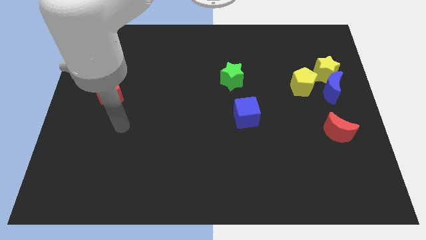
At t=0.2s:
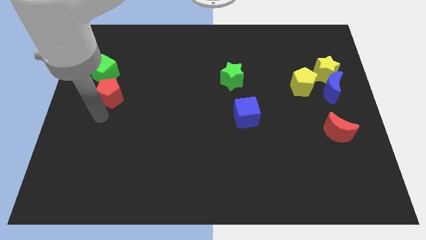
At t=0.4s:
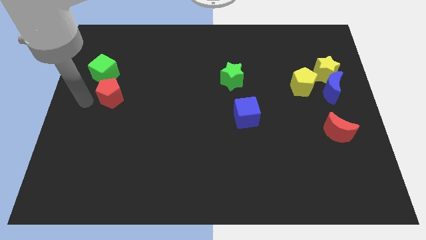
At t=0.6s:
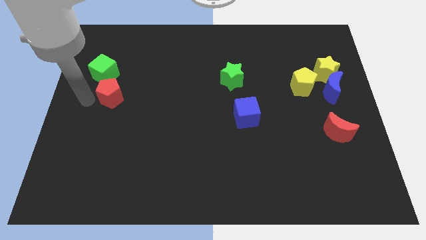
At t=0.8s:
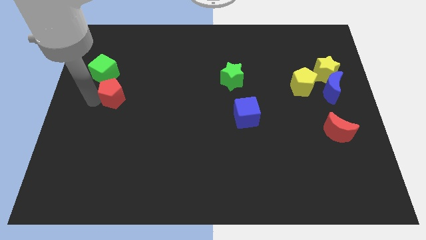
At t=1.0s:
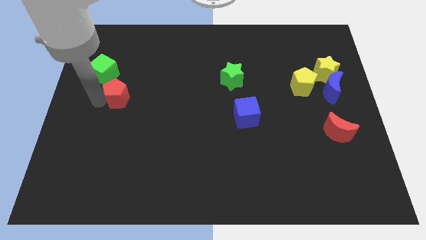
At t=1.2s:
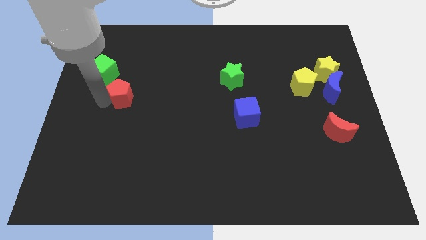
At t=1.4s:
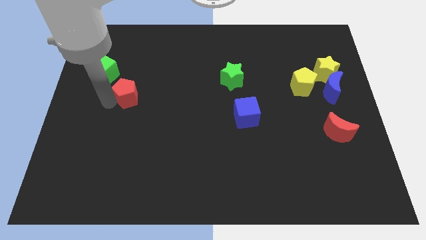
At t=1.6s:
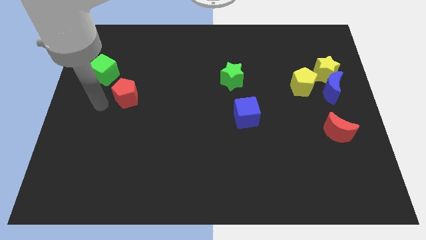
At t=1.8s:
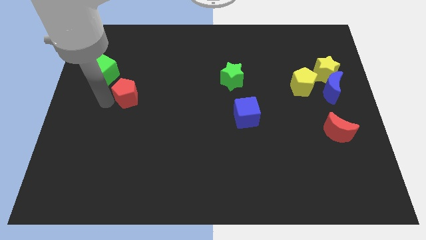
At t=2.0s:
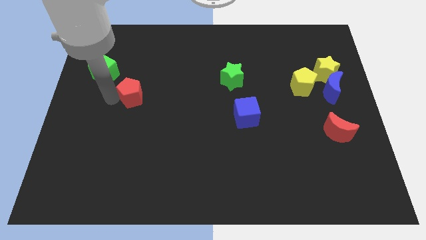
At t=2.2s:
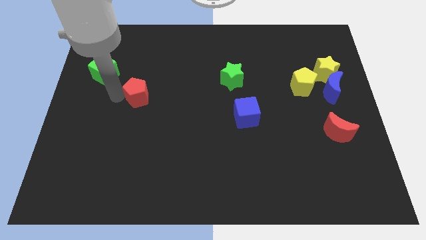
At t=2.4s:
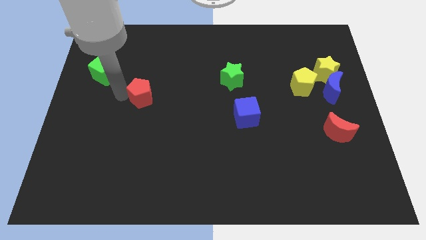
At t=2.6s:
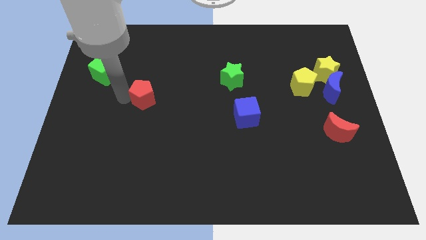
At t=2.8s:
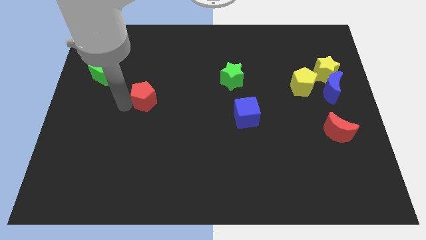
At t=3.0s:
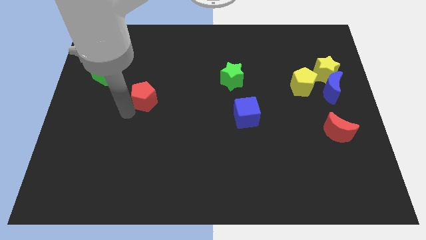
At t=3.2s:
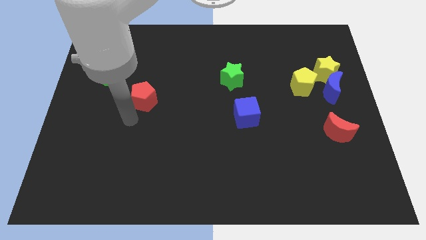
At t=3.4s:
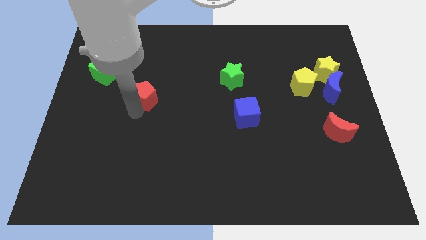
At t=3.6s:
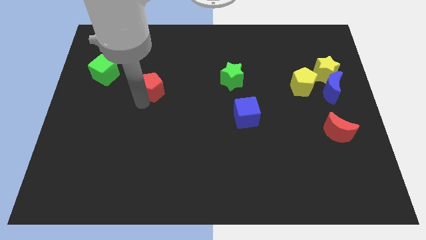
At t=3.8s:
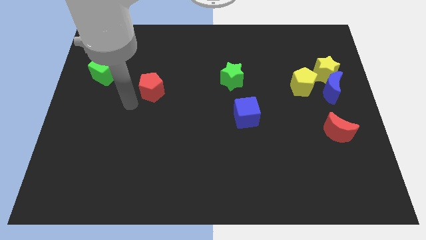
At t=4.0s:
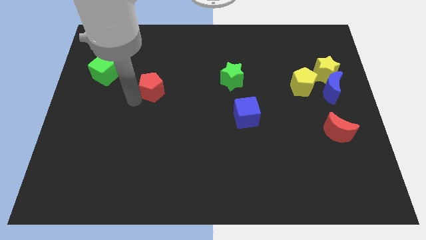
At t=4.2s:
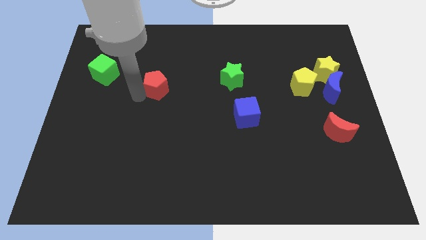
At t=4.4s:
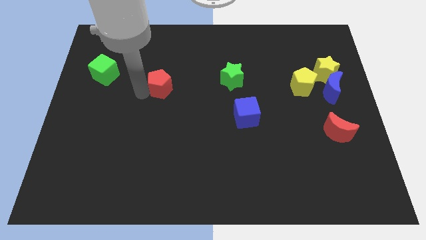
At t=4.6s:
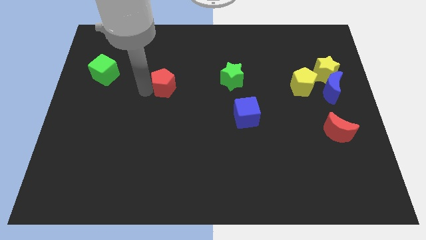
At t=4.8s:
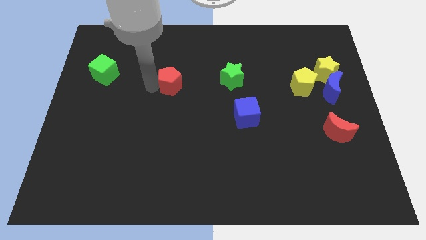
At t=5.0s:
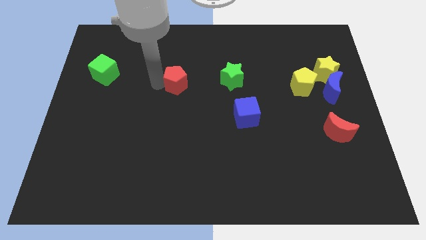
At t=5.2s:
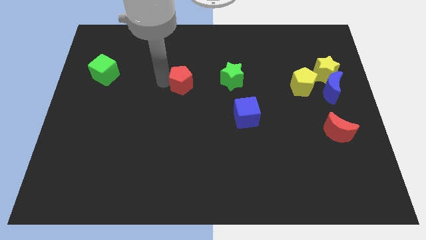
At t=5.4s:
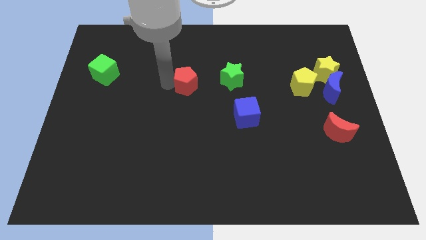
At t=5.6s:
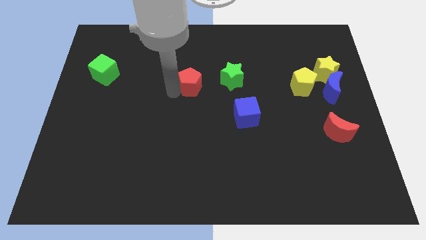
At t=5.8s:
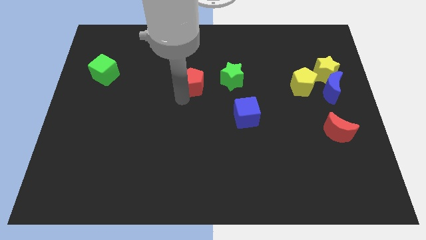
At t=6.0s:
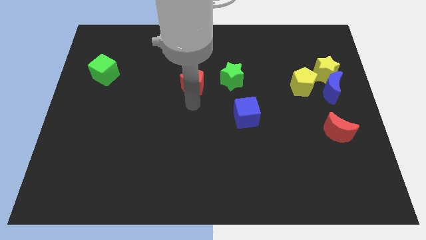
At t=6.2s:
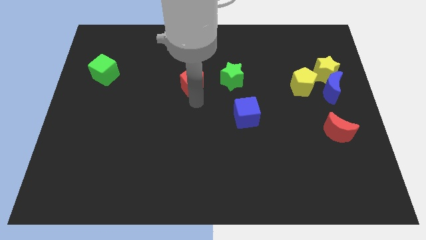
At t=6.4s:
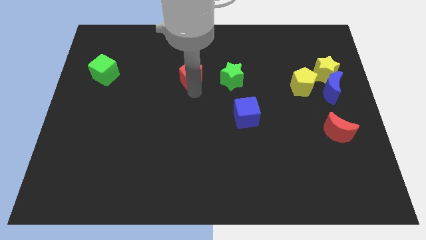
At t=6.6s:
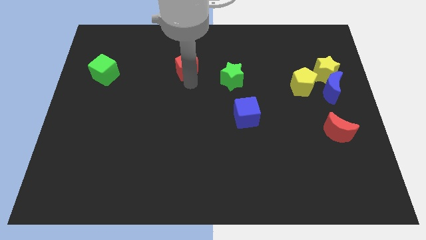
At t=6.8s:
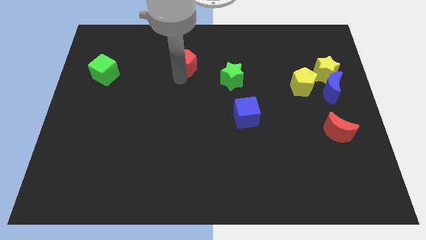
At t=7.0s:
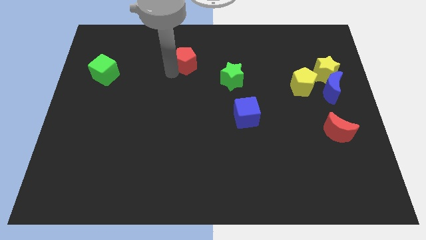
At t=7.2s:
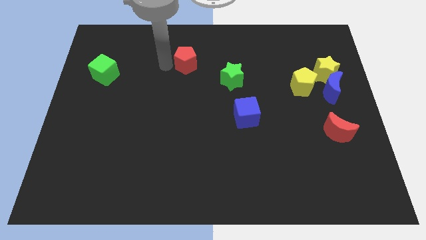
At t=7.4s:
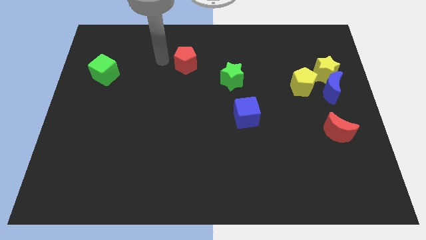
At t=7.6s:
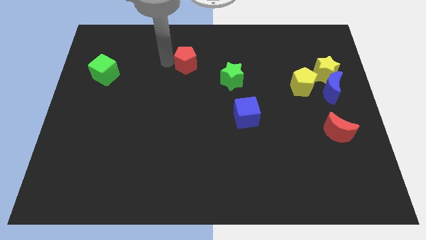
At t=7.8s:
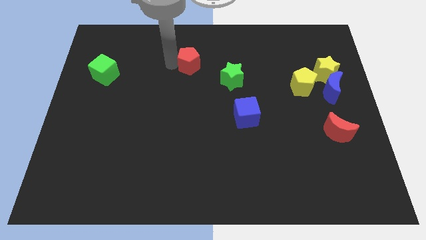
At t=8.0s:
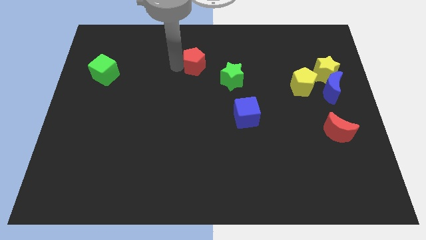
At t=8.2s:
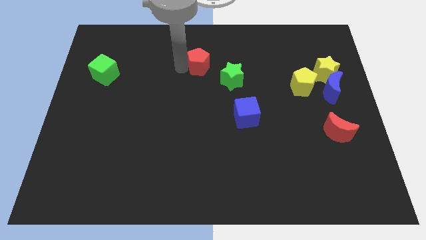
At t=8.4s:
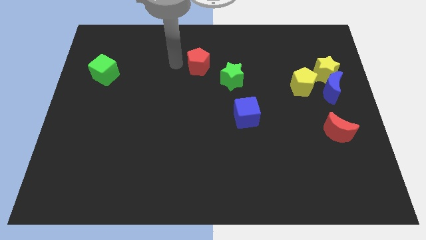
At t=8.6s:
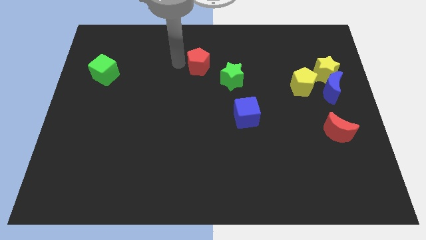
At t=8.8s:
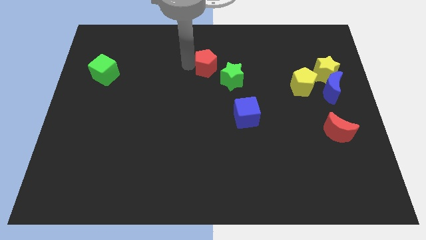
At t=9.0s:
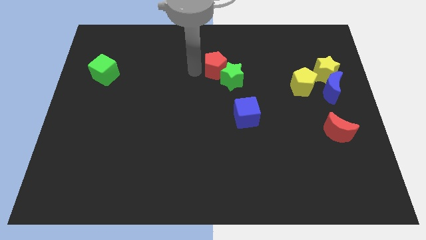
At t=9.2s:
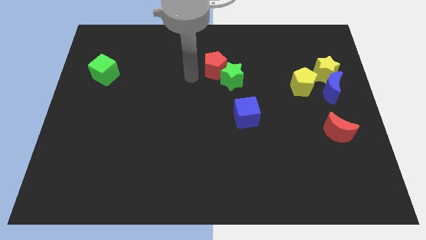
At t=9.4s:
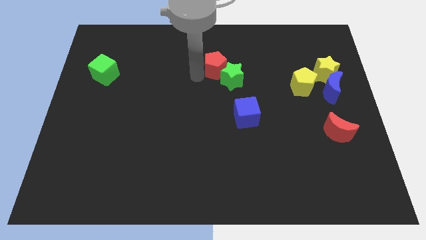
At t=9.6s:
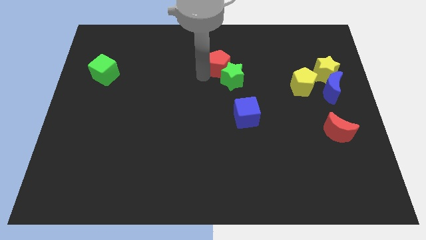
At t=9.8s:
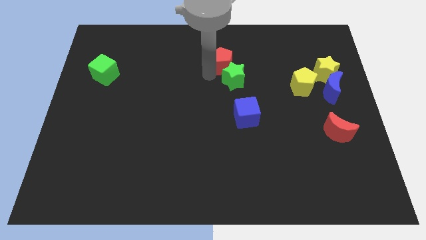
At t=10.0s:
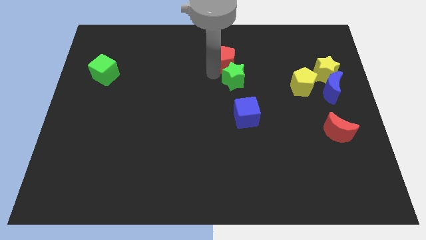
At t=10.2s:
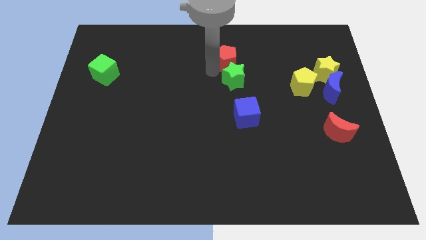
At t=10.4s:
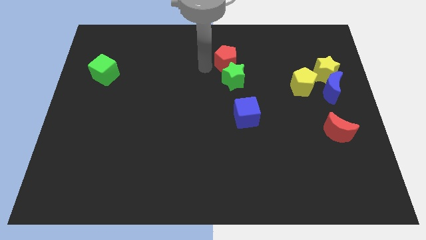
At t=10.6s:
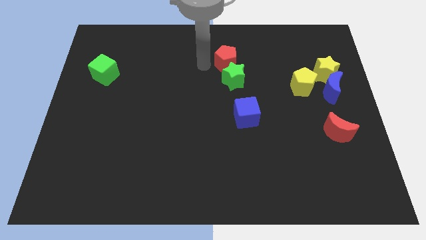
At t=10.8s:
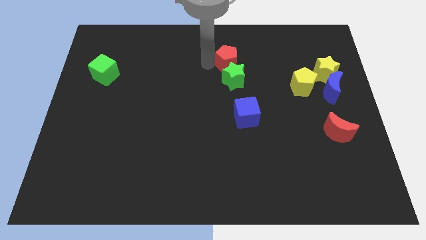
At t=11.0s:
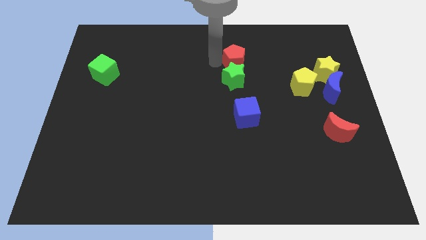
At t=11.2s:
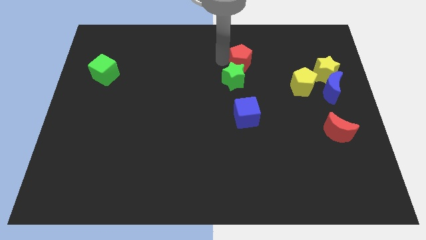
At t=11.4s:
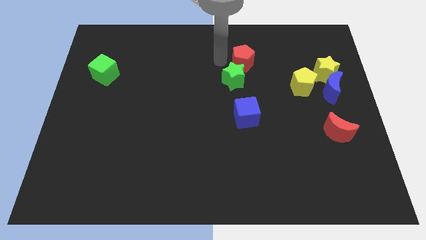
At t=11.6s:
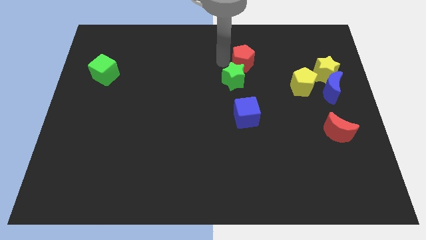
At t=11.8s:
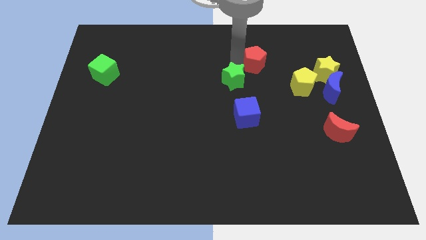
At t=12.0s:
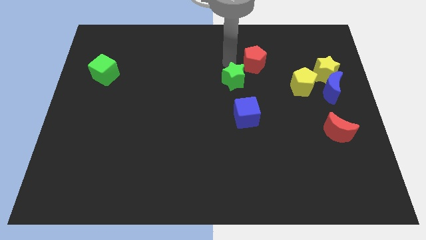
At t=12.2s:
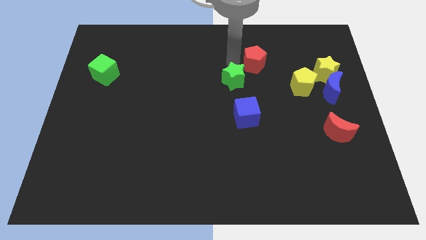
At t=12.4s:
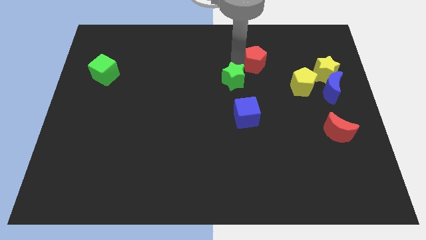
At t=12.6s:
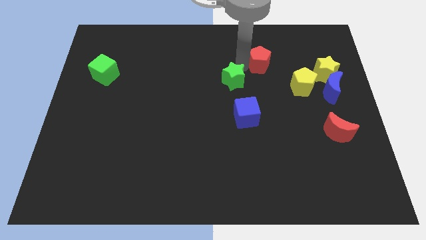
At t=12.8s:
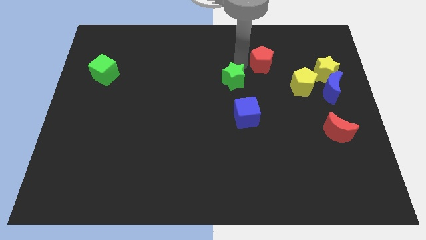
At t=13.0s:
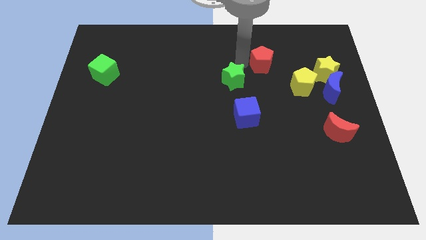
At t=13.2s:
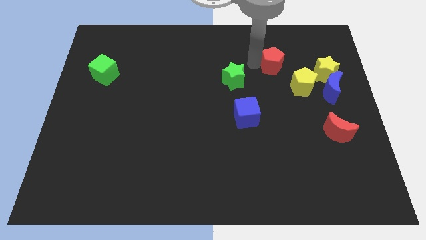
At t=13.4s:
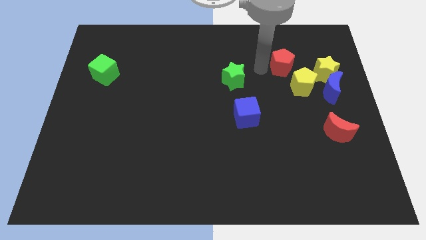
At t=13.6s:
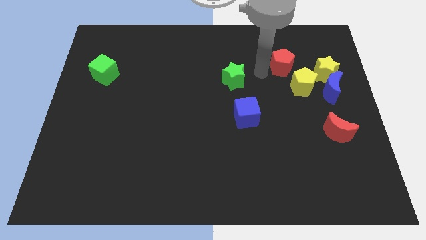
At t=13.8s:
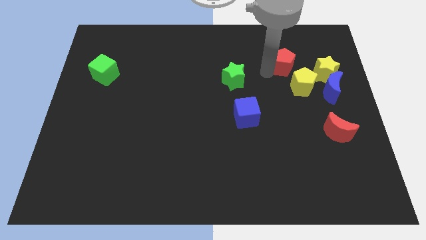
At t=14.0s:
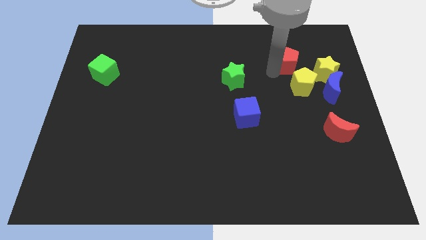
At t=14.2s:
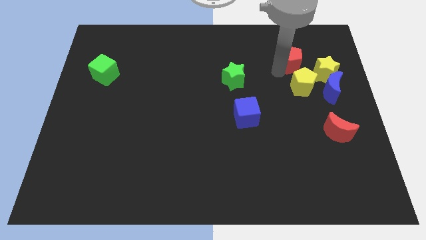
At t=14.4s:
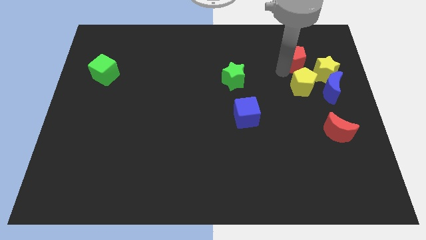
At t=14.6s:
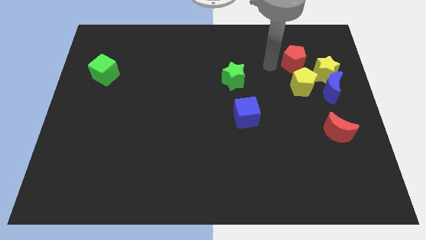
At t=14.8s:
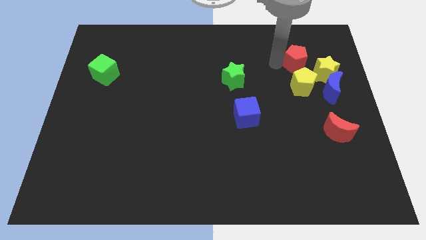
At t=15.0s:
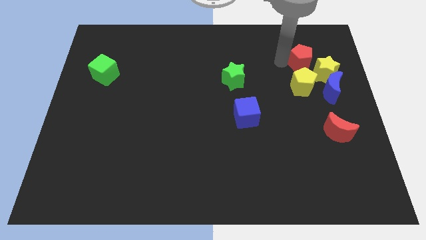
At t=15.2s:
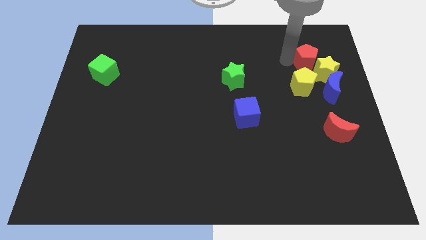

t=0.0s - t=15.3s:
move the red pentagon to the top of the blue moon

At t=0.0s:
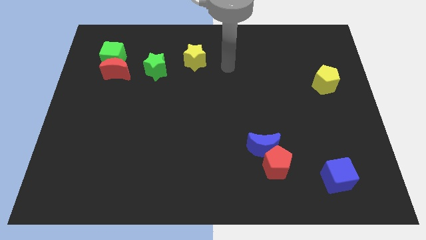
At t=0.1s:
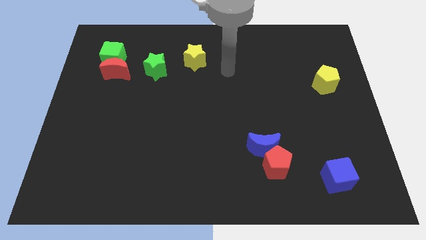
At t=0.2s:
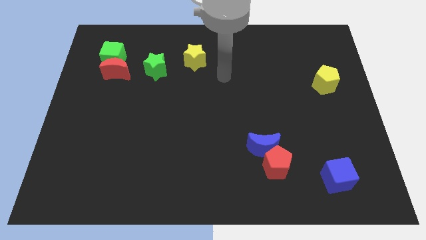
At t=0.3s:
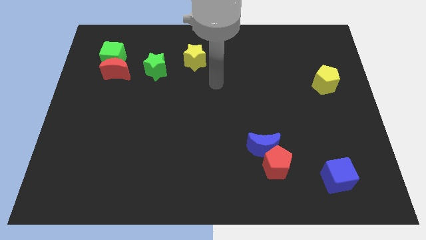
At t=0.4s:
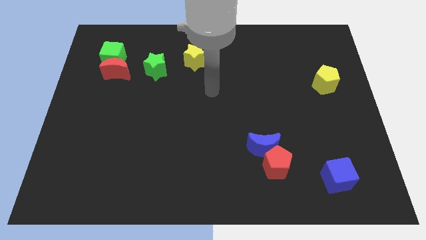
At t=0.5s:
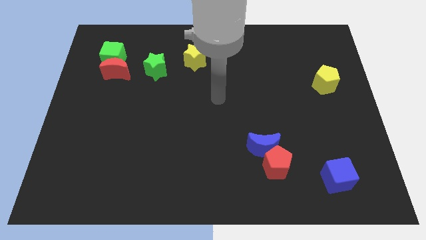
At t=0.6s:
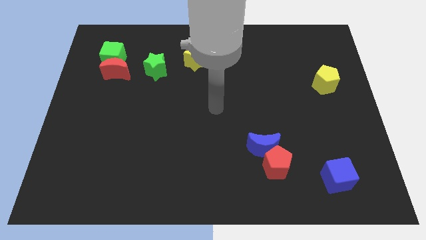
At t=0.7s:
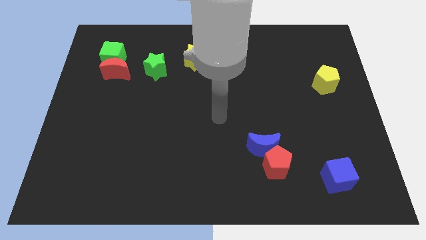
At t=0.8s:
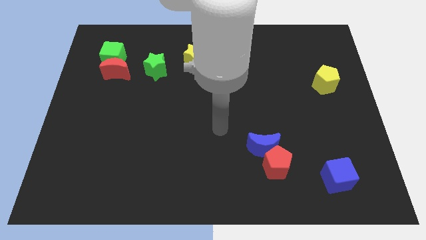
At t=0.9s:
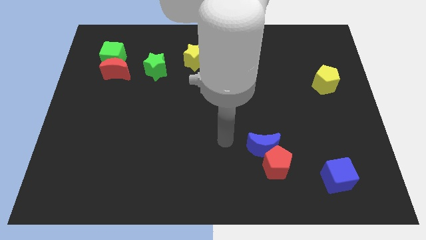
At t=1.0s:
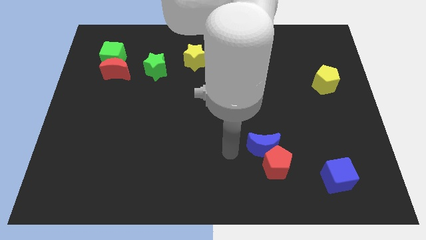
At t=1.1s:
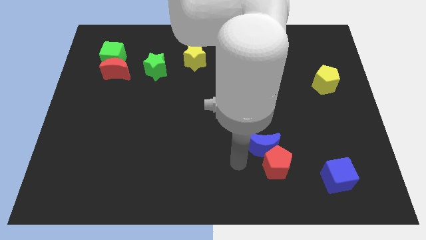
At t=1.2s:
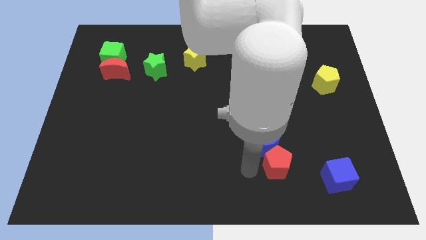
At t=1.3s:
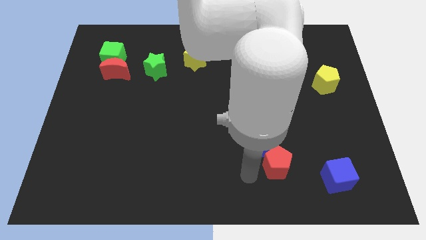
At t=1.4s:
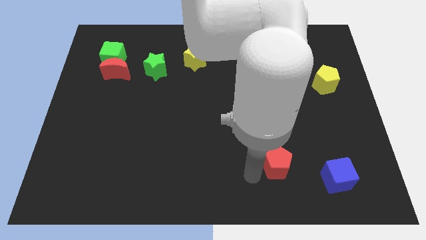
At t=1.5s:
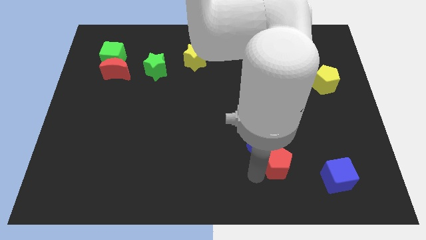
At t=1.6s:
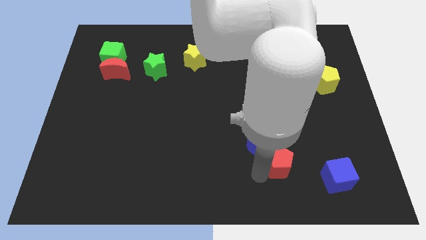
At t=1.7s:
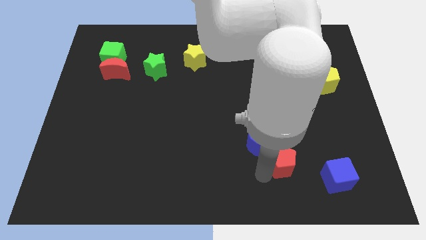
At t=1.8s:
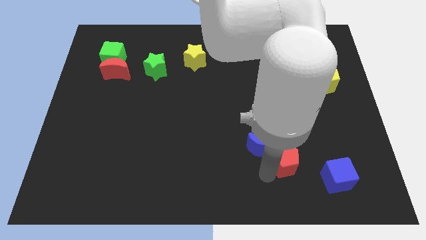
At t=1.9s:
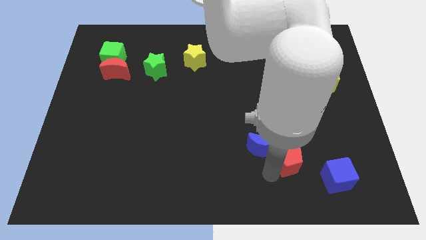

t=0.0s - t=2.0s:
put the red pentagon to the top left of the blue cube
